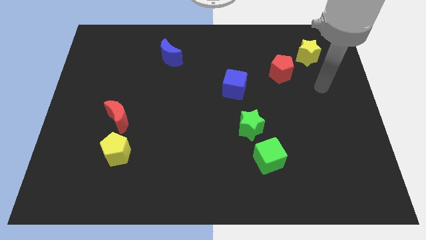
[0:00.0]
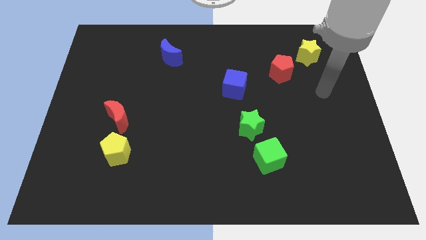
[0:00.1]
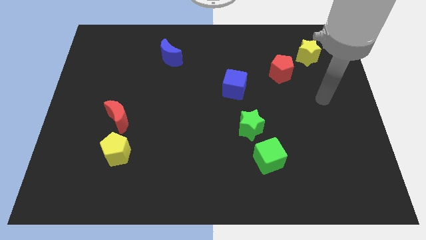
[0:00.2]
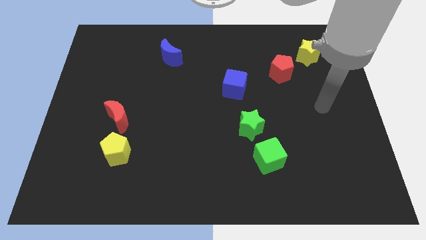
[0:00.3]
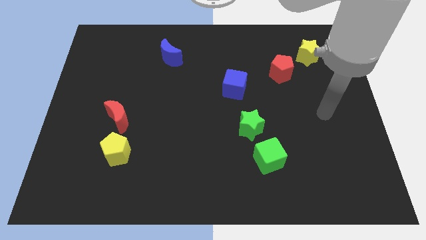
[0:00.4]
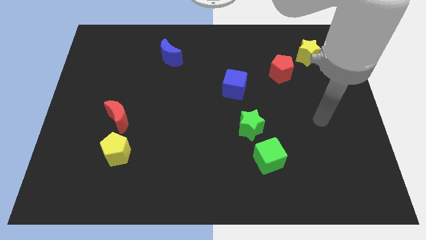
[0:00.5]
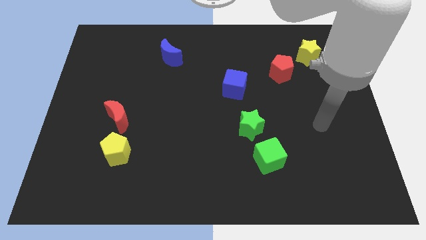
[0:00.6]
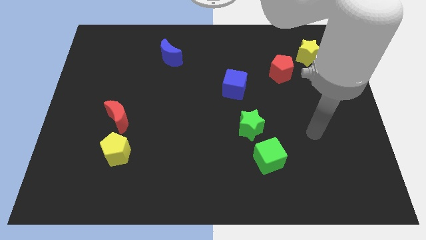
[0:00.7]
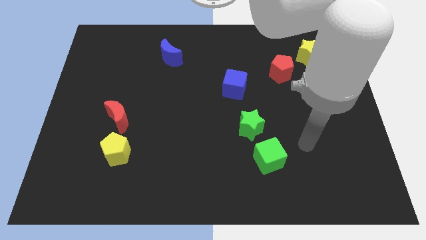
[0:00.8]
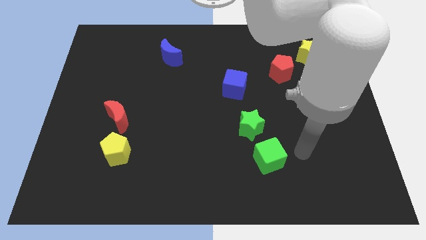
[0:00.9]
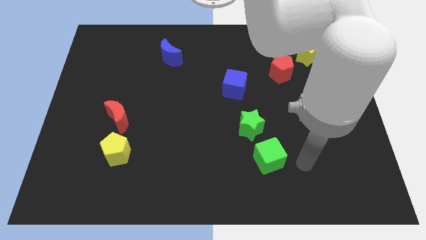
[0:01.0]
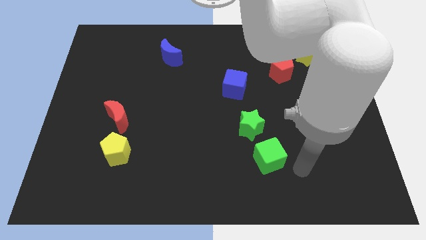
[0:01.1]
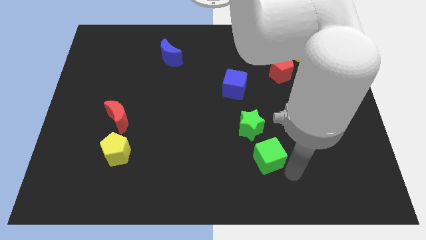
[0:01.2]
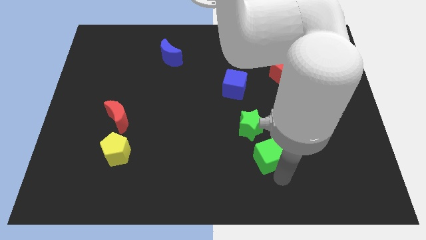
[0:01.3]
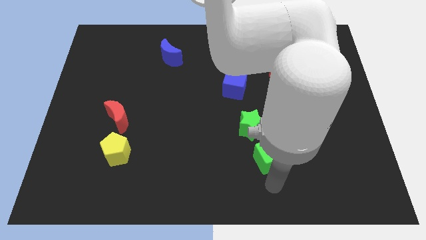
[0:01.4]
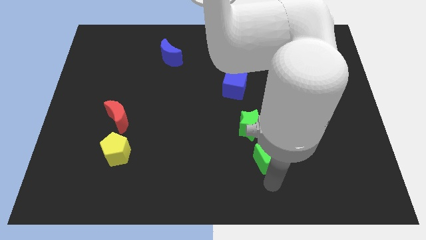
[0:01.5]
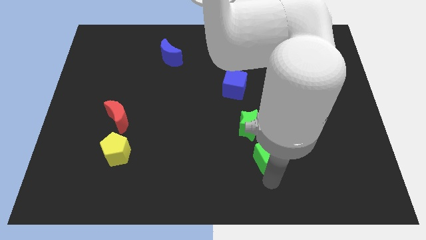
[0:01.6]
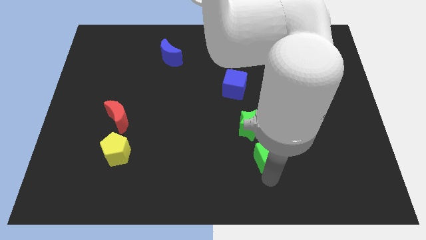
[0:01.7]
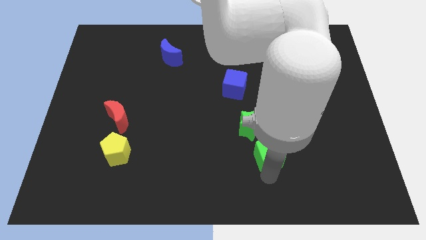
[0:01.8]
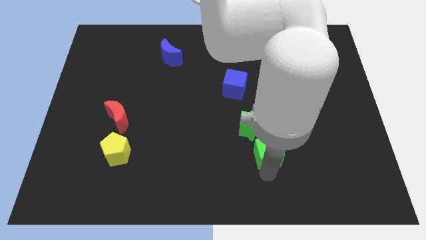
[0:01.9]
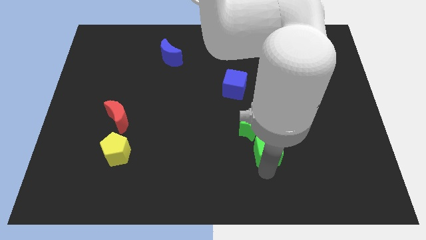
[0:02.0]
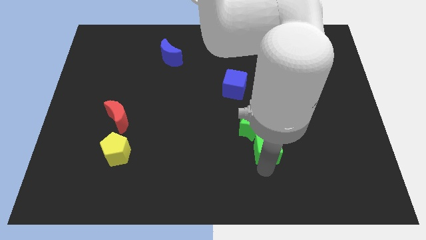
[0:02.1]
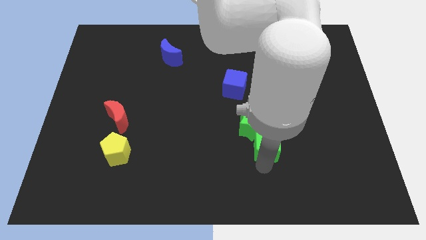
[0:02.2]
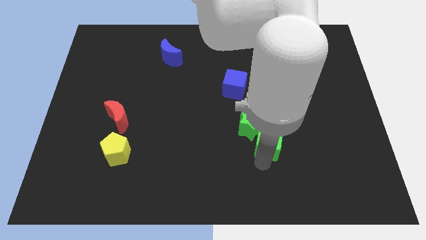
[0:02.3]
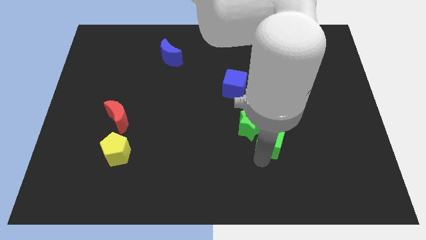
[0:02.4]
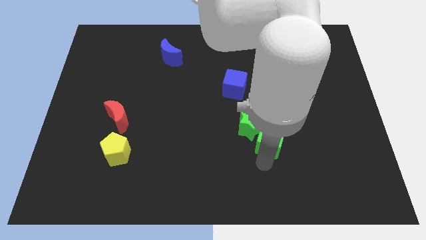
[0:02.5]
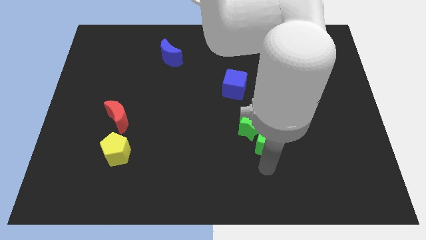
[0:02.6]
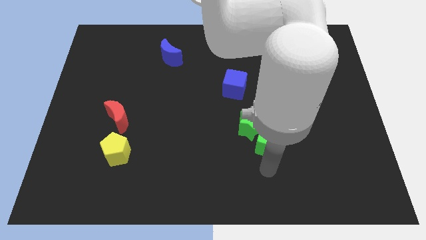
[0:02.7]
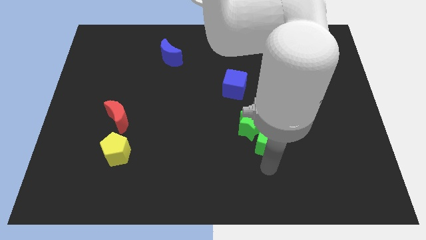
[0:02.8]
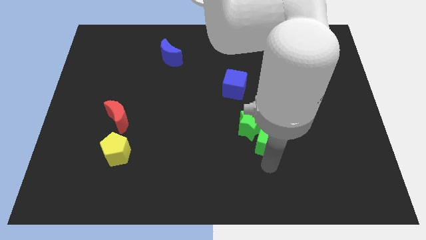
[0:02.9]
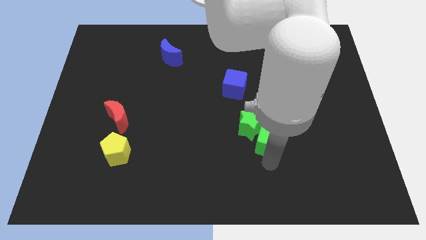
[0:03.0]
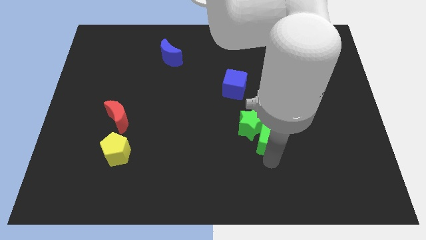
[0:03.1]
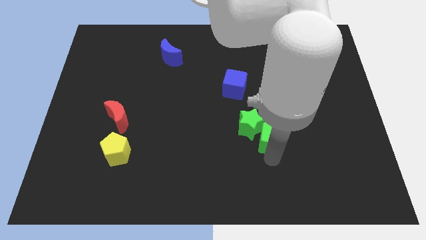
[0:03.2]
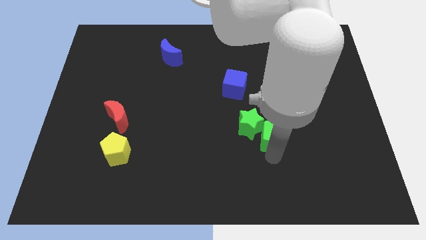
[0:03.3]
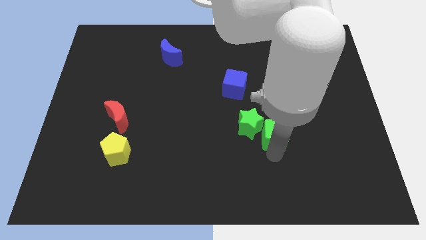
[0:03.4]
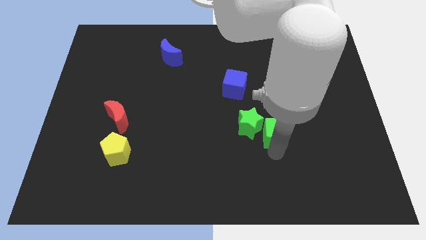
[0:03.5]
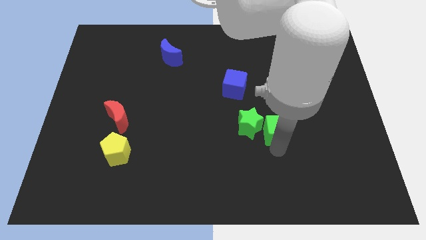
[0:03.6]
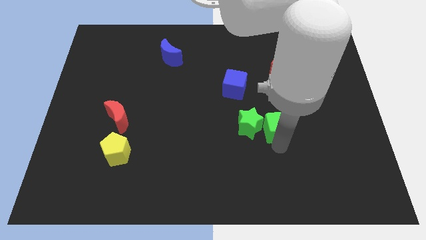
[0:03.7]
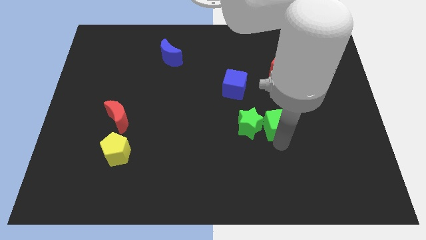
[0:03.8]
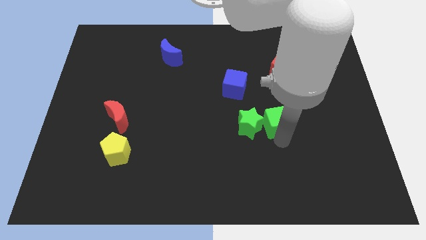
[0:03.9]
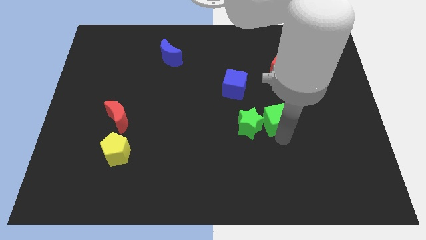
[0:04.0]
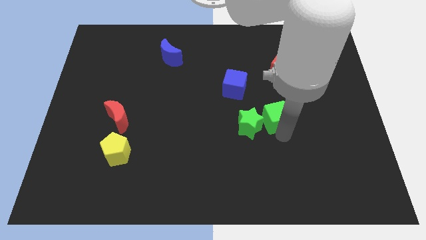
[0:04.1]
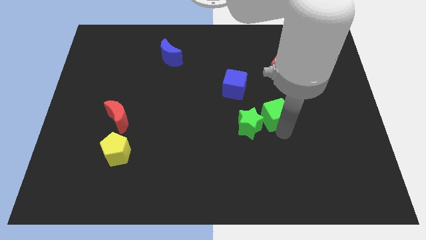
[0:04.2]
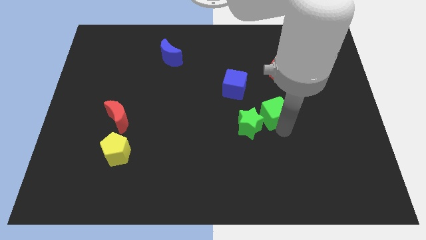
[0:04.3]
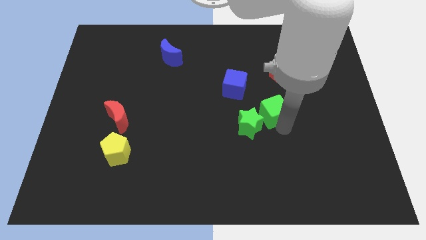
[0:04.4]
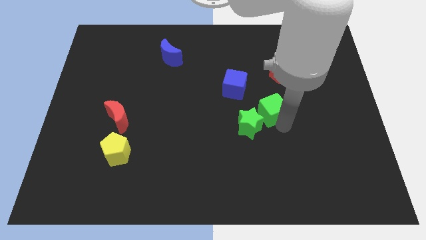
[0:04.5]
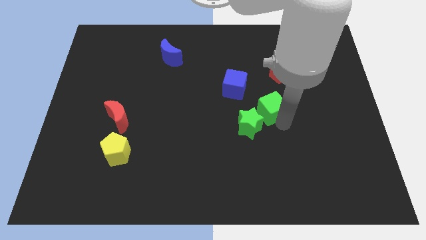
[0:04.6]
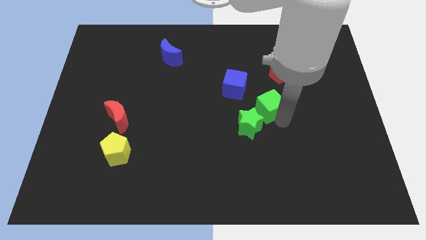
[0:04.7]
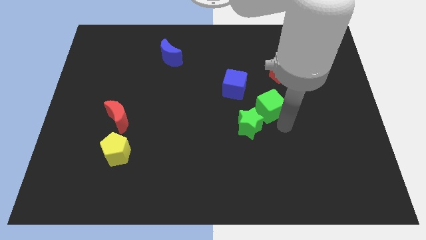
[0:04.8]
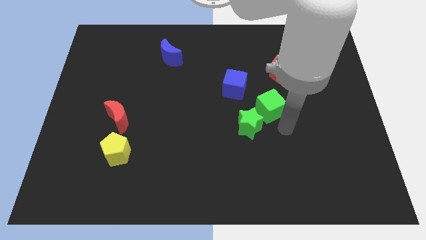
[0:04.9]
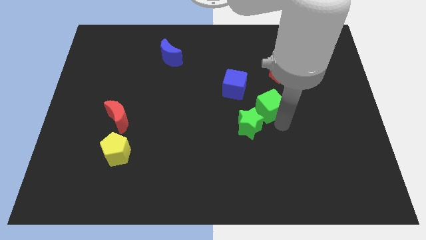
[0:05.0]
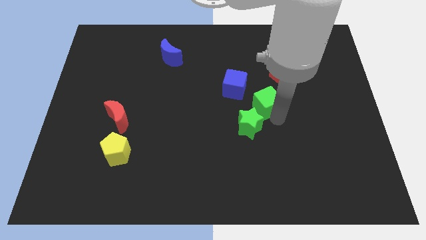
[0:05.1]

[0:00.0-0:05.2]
push the green cube to the top of the green star

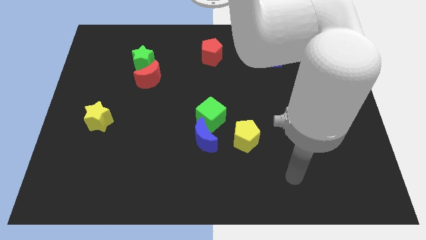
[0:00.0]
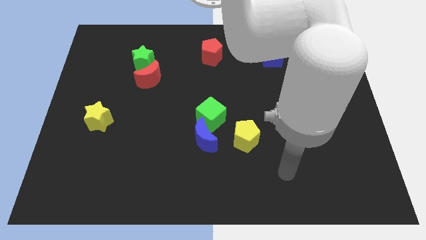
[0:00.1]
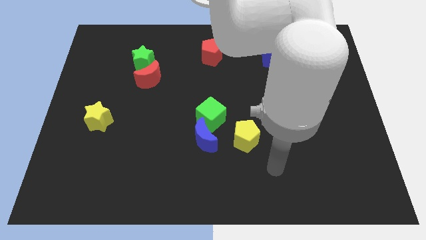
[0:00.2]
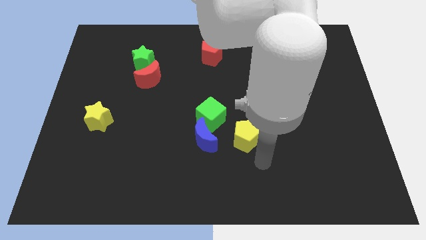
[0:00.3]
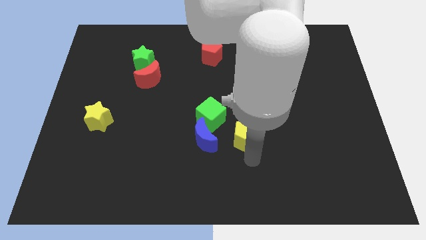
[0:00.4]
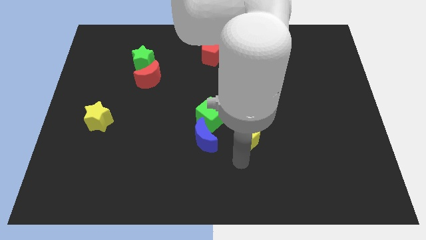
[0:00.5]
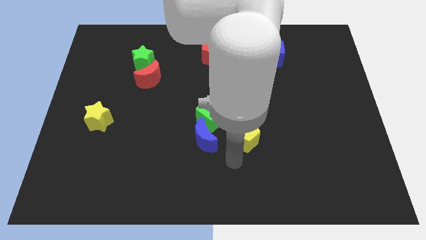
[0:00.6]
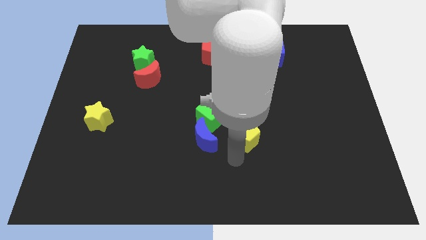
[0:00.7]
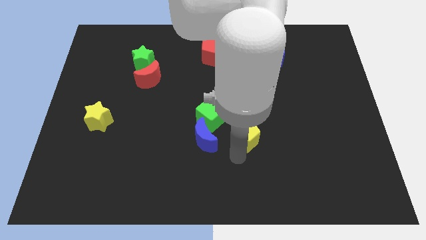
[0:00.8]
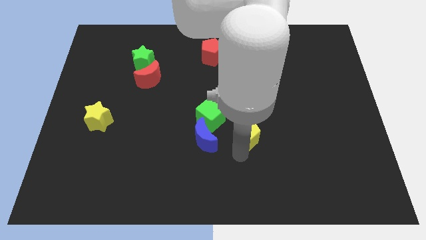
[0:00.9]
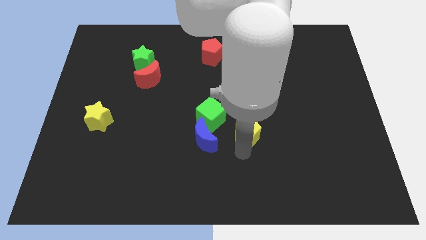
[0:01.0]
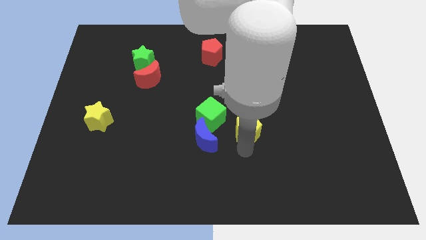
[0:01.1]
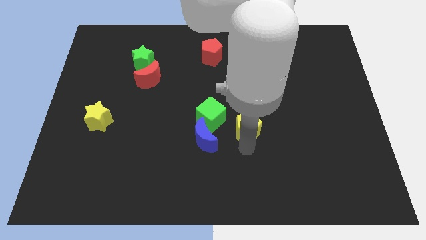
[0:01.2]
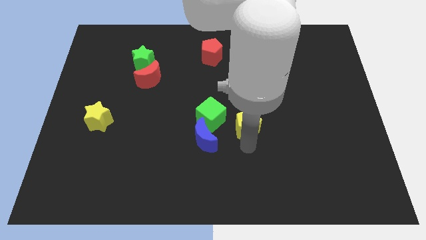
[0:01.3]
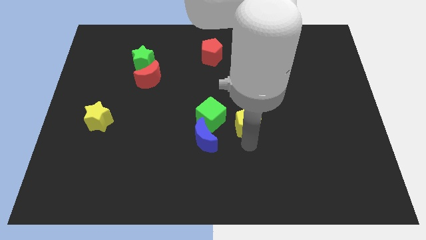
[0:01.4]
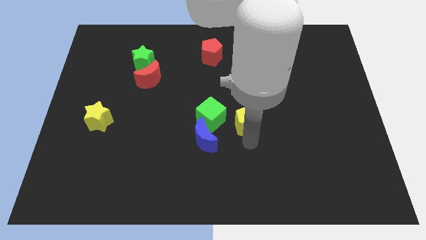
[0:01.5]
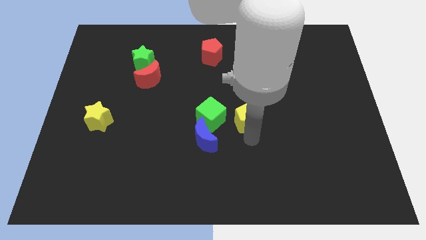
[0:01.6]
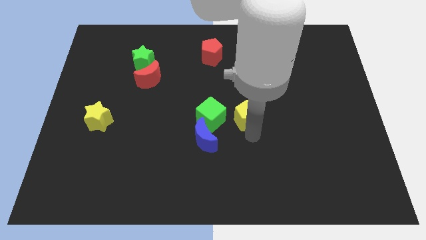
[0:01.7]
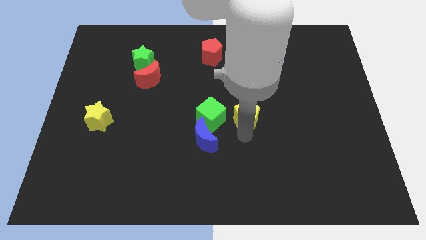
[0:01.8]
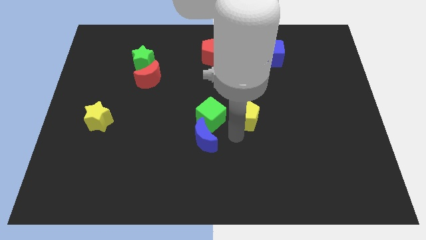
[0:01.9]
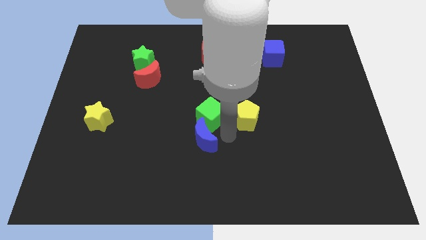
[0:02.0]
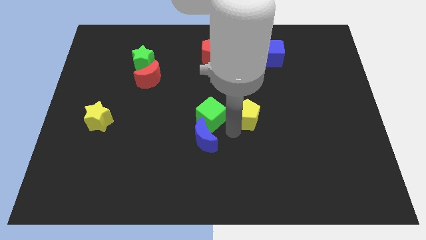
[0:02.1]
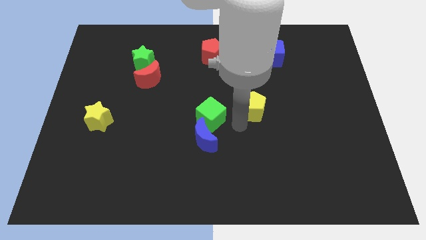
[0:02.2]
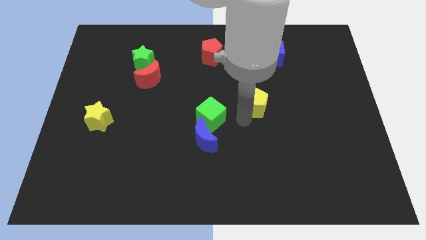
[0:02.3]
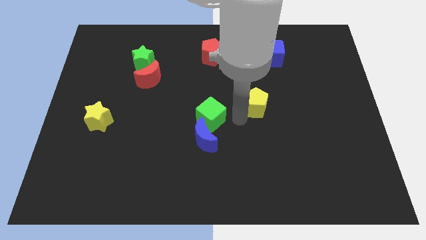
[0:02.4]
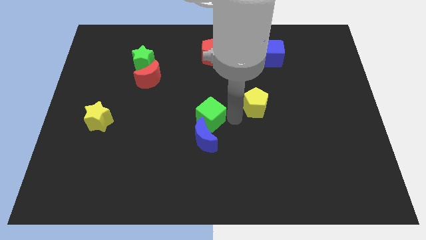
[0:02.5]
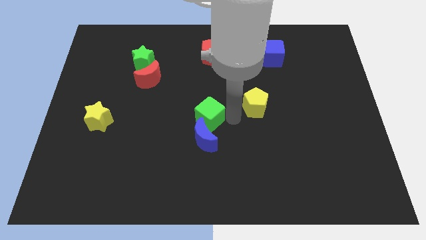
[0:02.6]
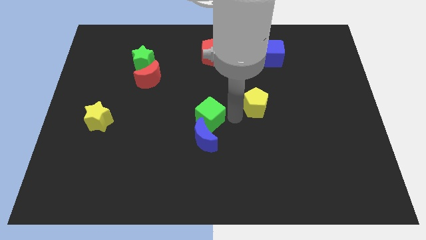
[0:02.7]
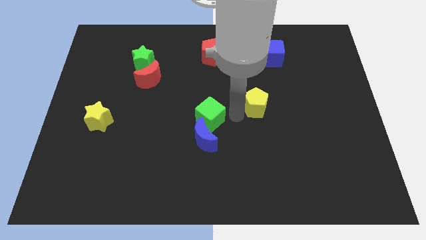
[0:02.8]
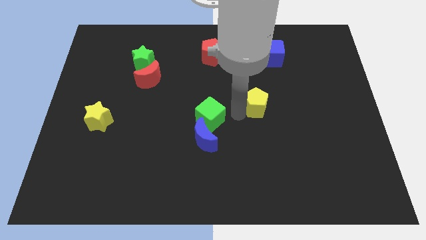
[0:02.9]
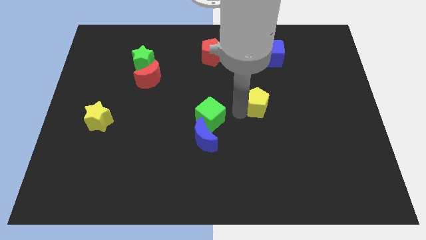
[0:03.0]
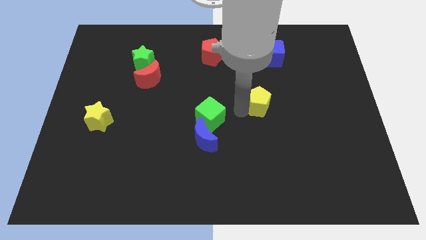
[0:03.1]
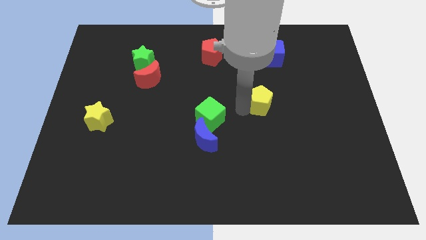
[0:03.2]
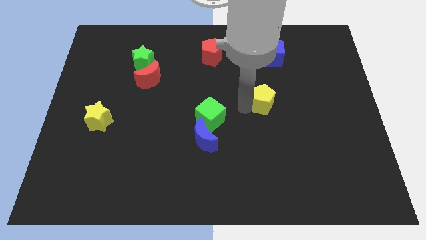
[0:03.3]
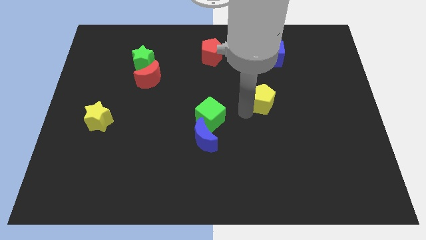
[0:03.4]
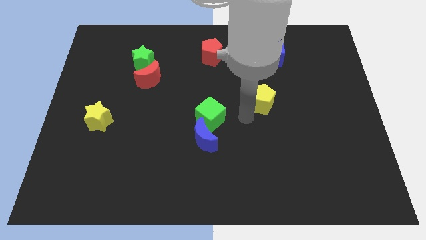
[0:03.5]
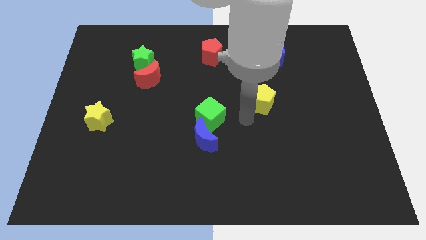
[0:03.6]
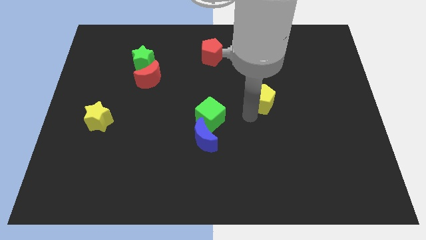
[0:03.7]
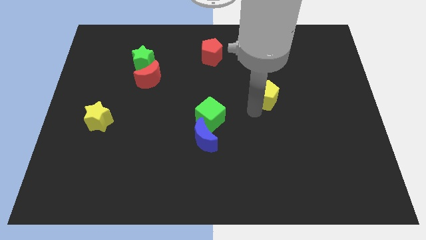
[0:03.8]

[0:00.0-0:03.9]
push the yellow pentagon to the bottom of the blue cube
